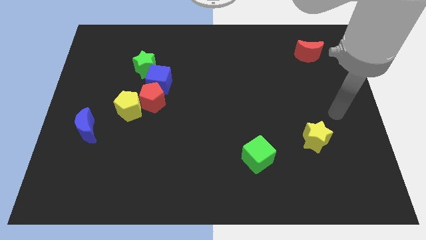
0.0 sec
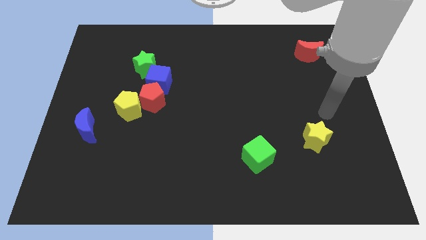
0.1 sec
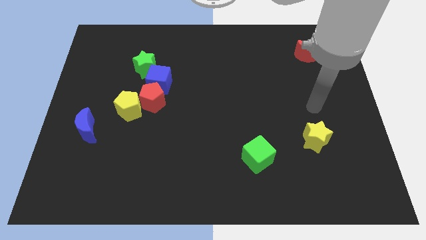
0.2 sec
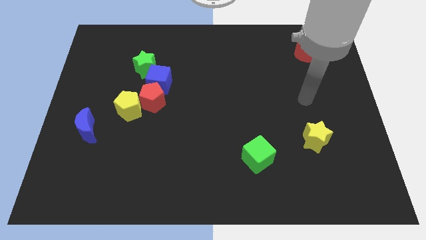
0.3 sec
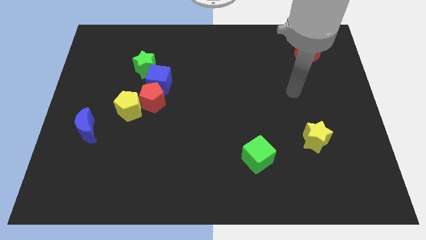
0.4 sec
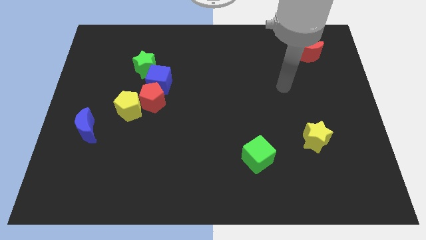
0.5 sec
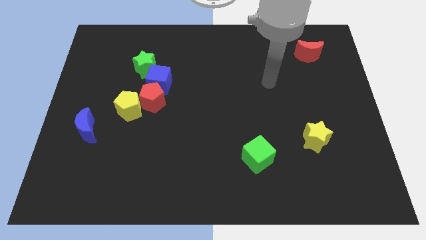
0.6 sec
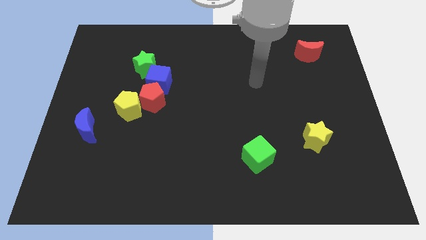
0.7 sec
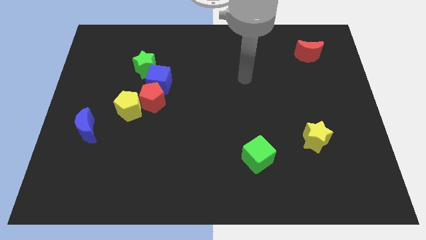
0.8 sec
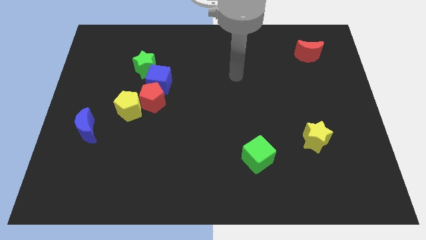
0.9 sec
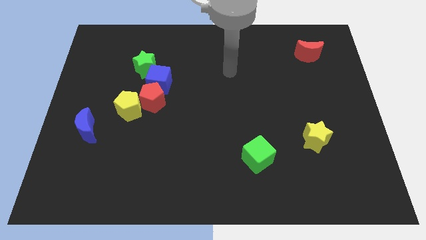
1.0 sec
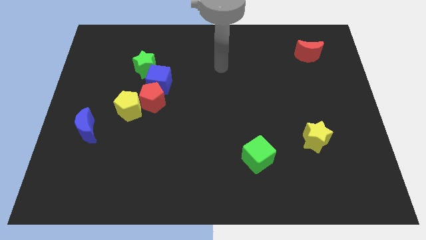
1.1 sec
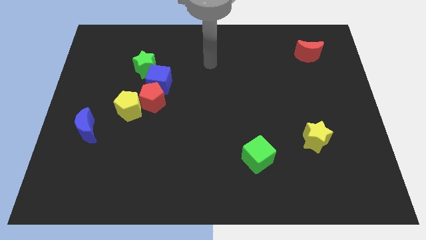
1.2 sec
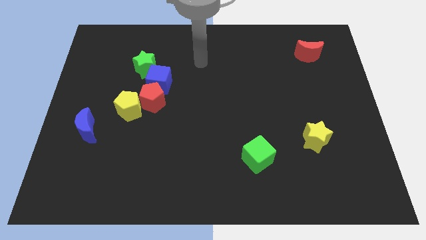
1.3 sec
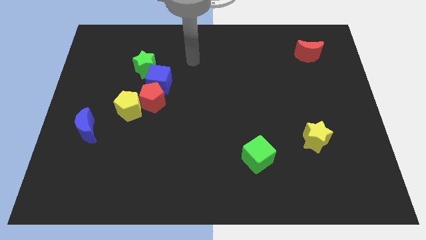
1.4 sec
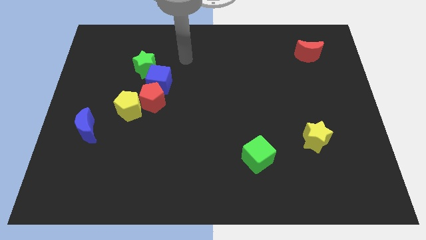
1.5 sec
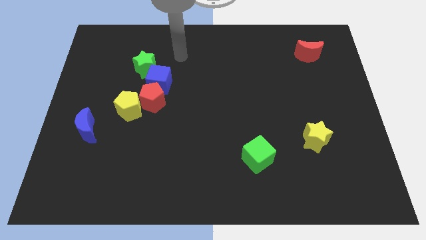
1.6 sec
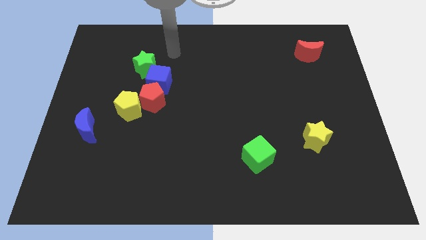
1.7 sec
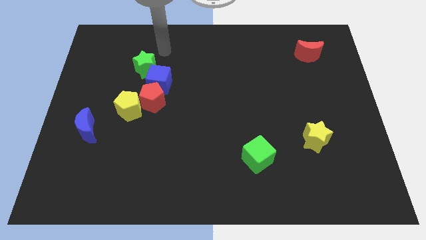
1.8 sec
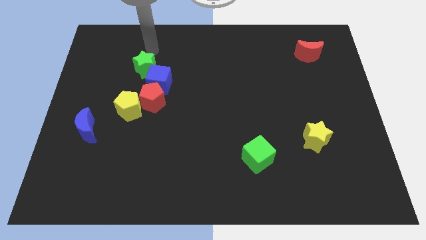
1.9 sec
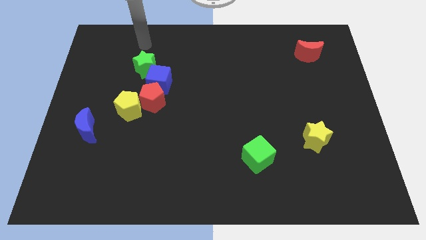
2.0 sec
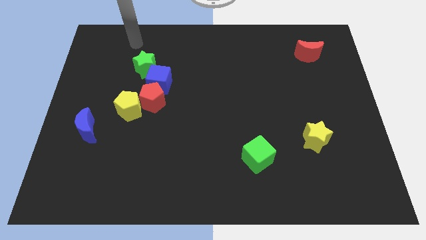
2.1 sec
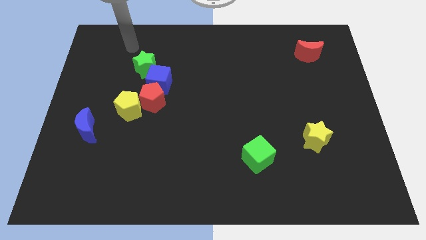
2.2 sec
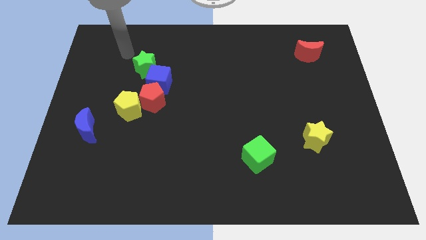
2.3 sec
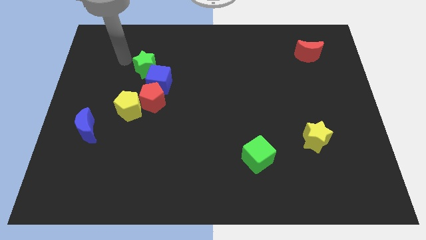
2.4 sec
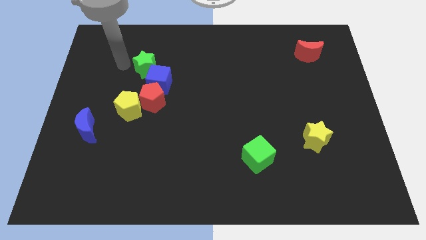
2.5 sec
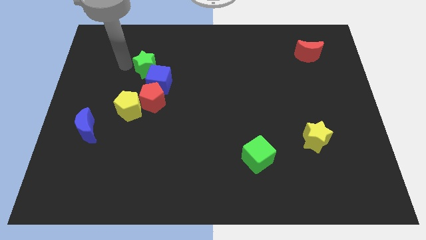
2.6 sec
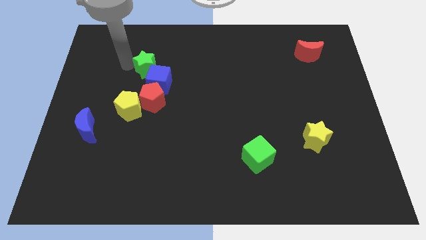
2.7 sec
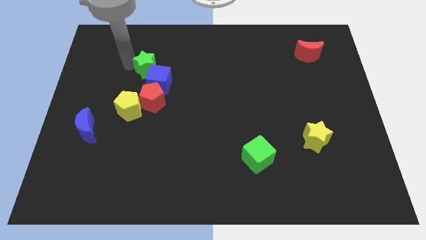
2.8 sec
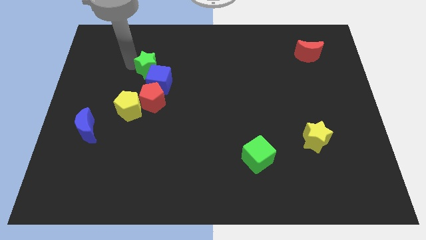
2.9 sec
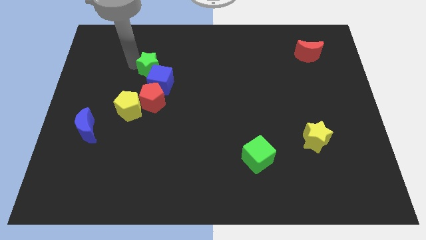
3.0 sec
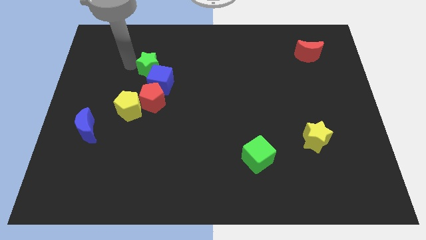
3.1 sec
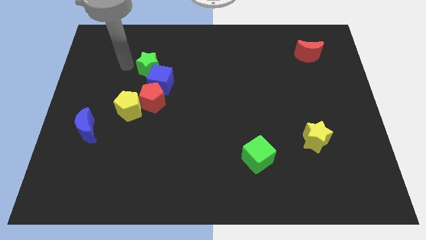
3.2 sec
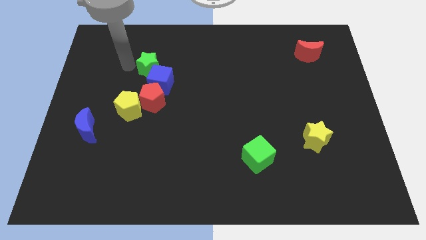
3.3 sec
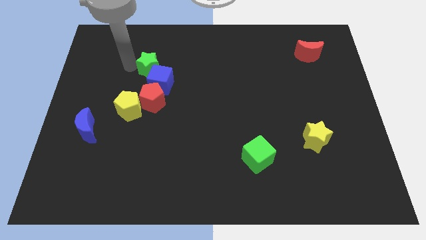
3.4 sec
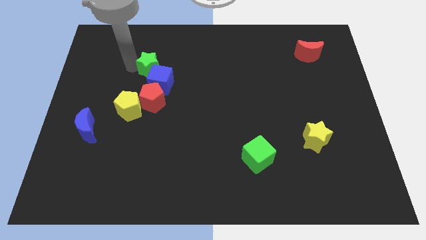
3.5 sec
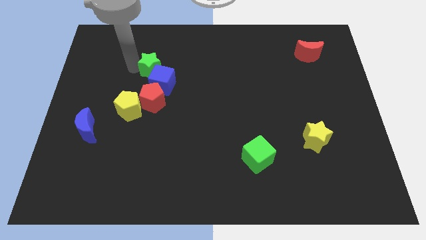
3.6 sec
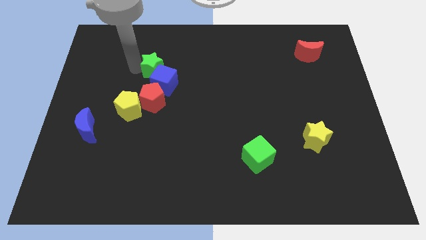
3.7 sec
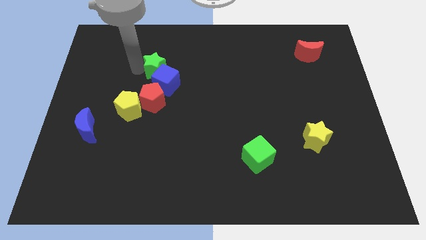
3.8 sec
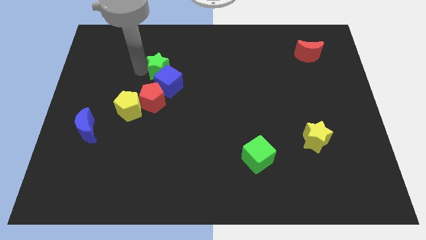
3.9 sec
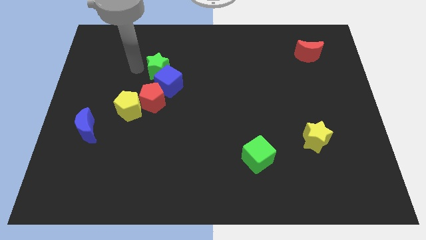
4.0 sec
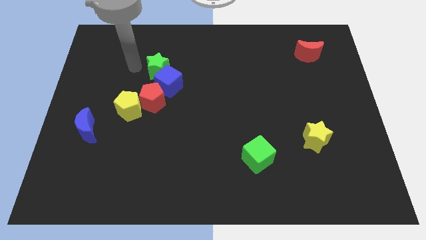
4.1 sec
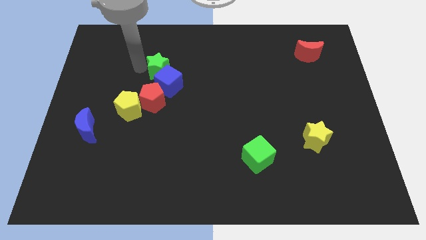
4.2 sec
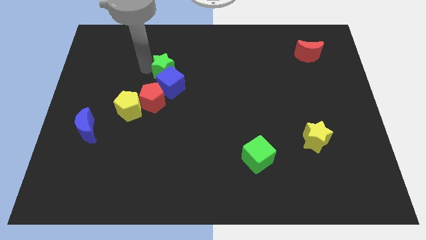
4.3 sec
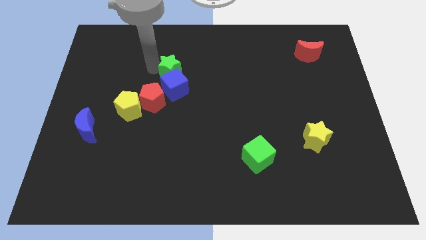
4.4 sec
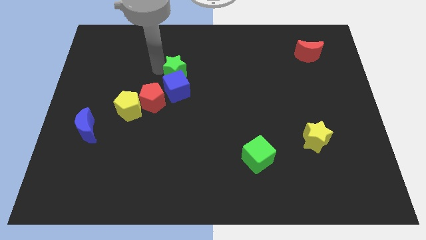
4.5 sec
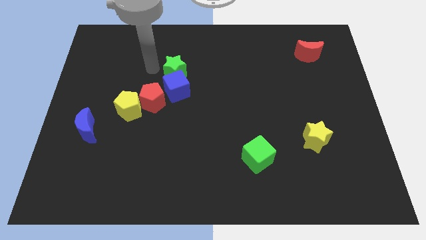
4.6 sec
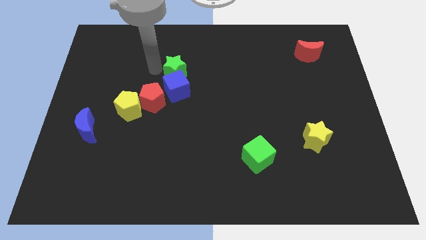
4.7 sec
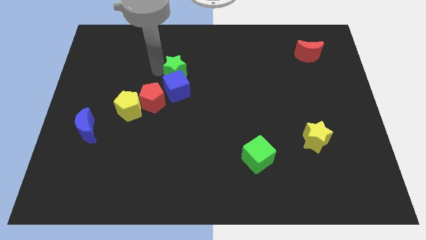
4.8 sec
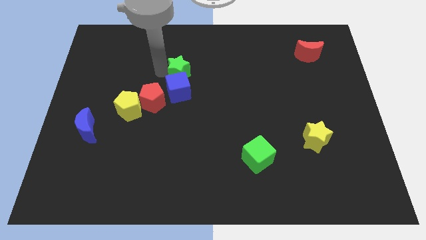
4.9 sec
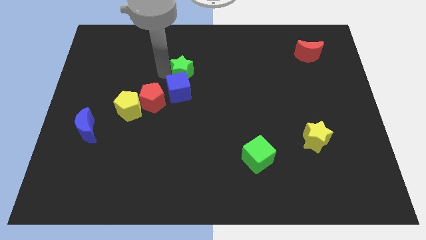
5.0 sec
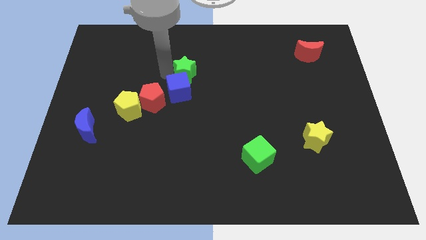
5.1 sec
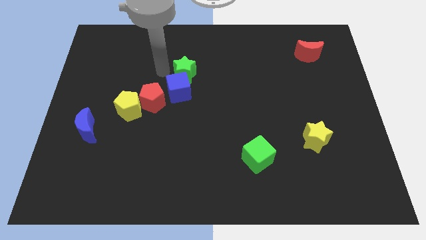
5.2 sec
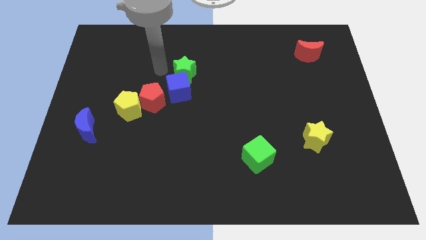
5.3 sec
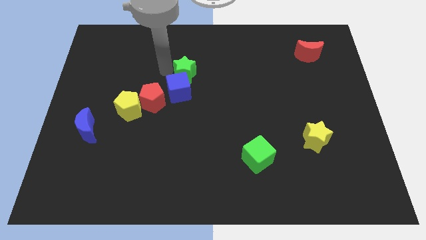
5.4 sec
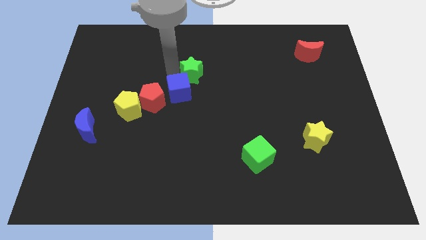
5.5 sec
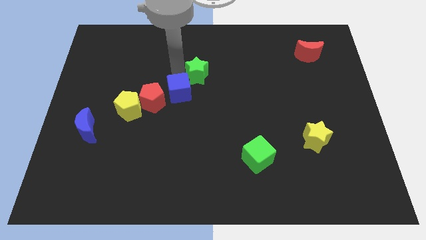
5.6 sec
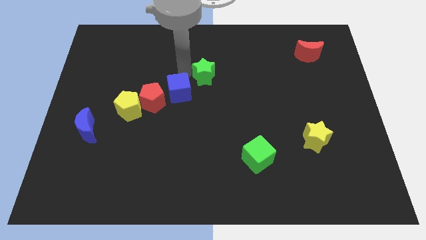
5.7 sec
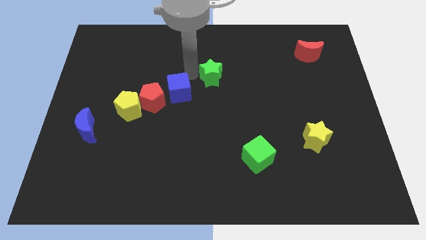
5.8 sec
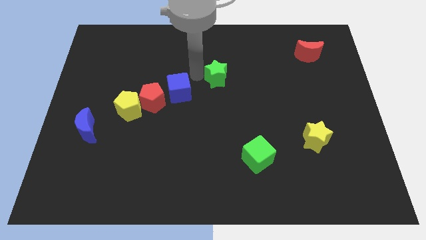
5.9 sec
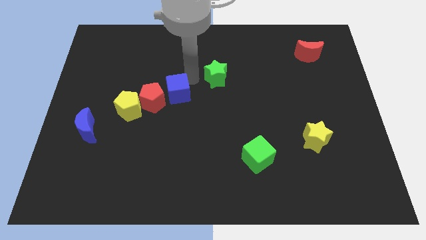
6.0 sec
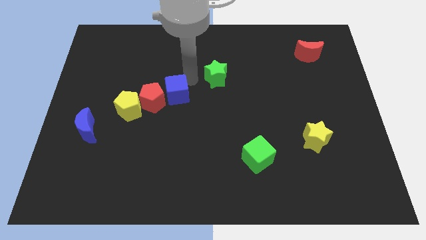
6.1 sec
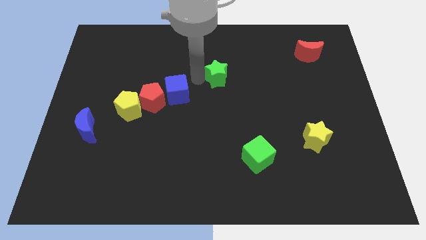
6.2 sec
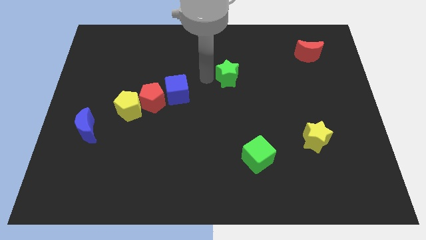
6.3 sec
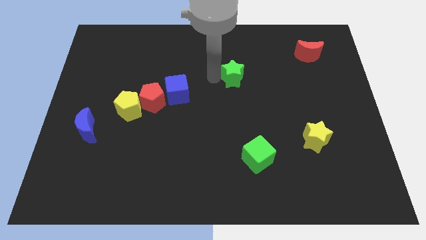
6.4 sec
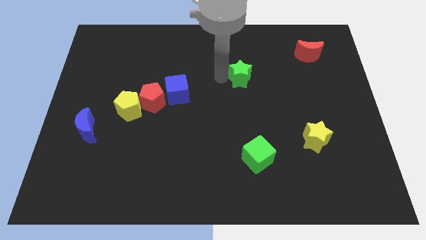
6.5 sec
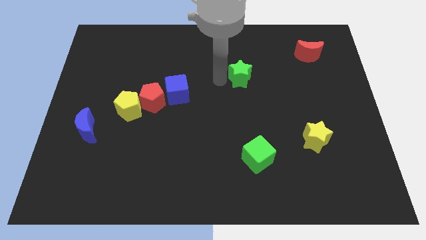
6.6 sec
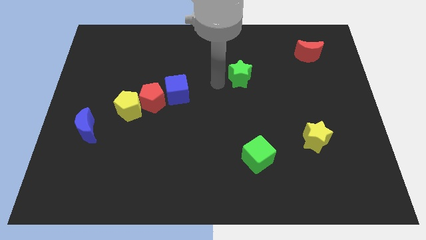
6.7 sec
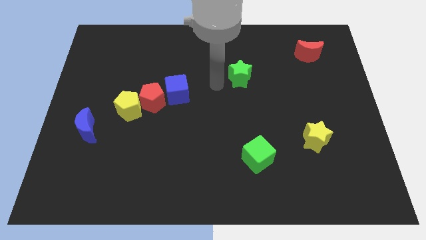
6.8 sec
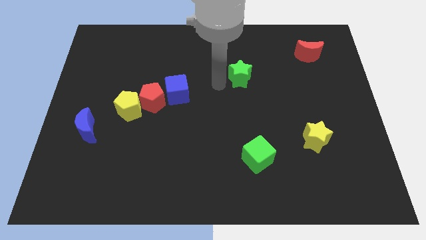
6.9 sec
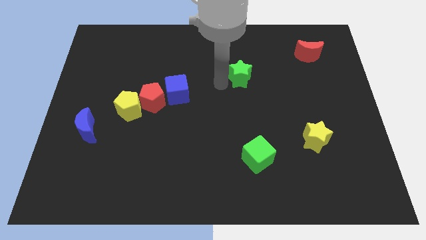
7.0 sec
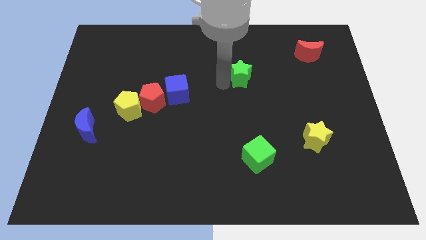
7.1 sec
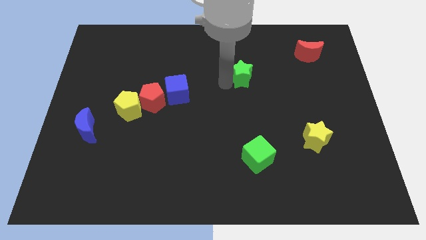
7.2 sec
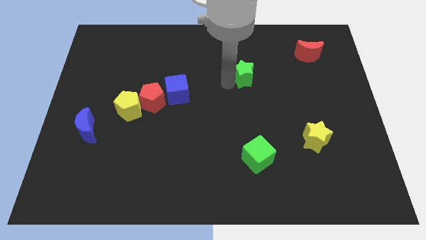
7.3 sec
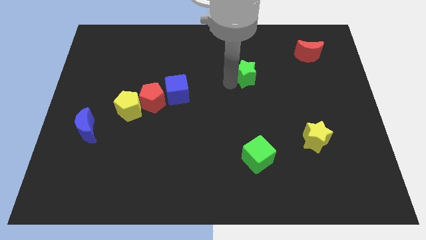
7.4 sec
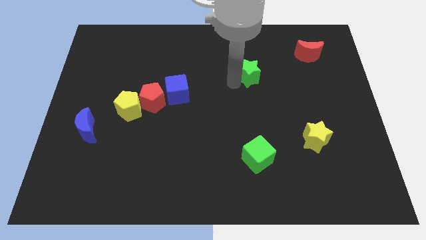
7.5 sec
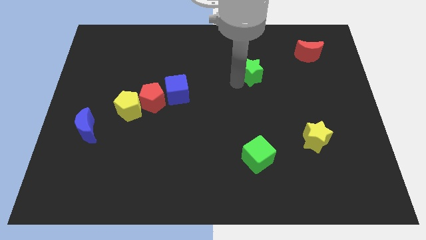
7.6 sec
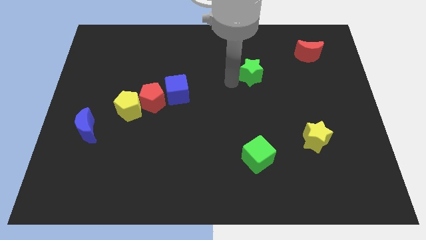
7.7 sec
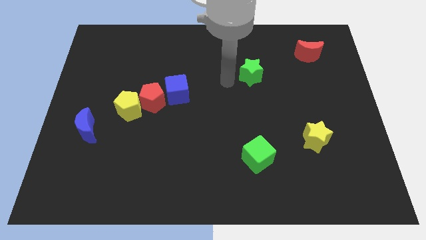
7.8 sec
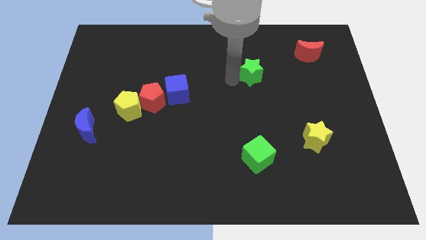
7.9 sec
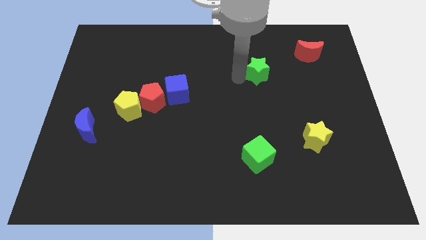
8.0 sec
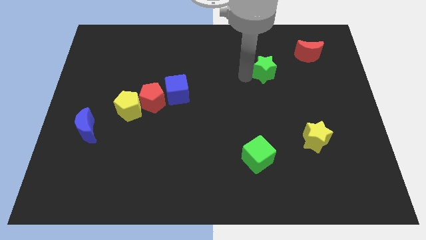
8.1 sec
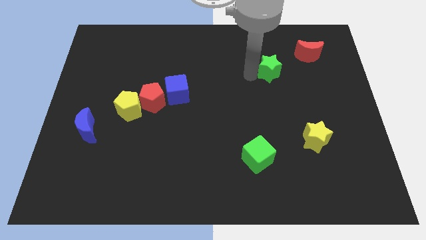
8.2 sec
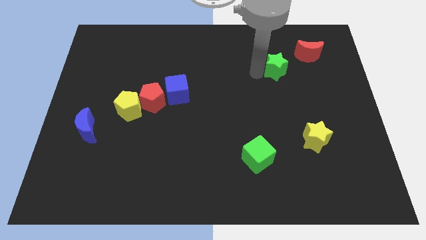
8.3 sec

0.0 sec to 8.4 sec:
push the green star diagonally down and to the left of the red moon
